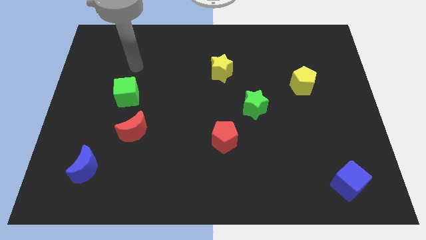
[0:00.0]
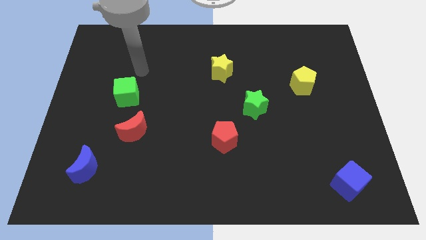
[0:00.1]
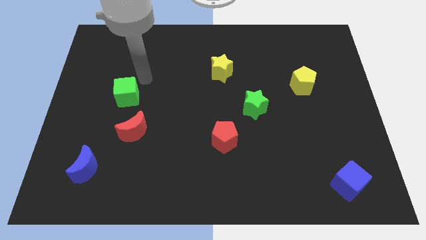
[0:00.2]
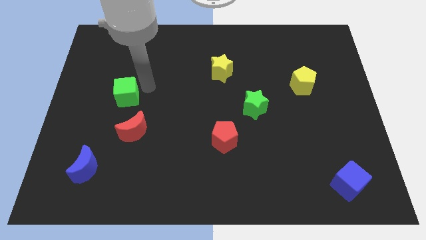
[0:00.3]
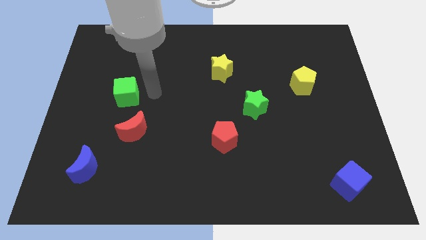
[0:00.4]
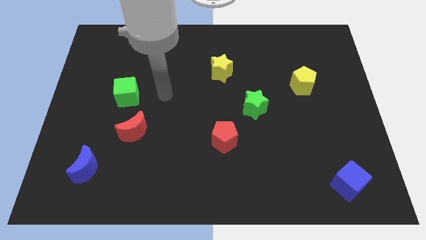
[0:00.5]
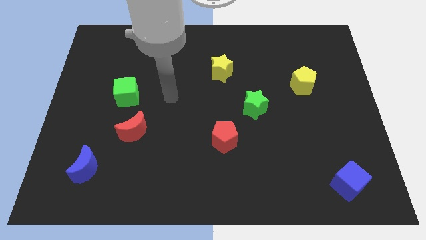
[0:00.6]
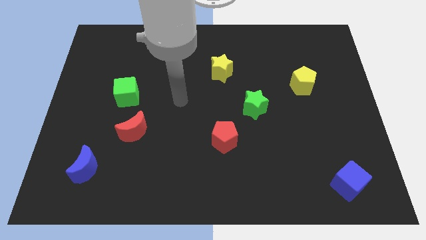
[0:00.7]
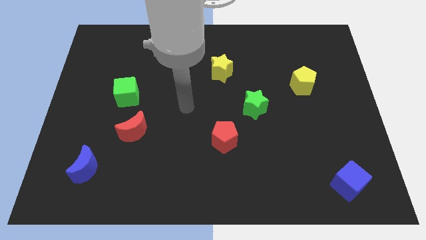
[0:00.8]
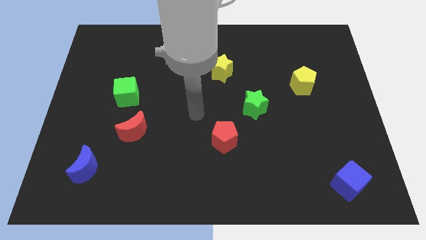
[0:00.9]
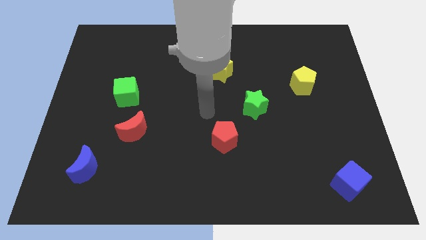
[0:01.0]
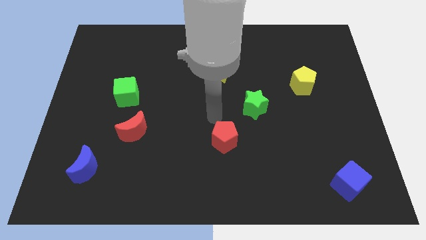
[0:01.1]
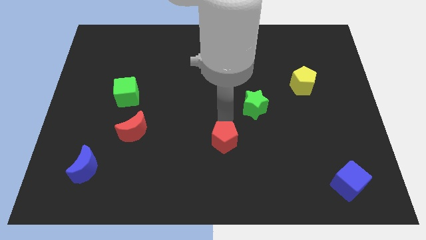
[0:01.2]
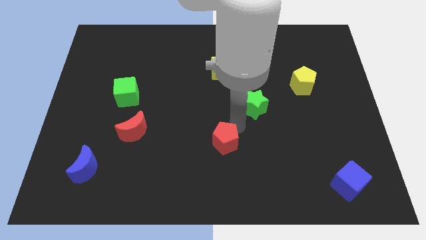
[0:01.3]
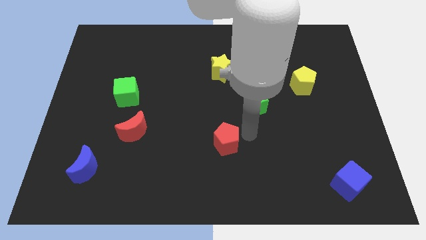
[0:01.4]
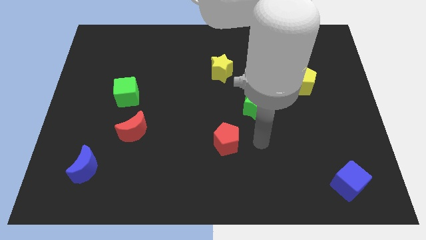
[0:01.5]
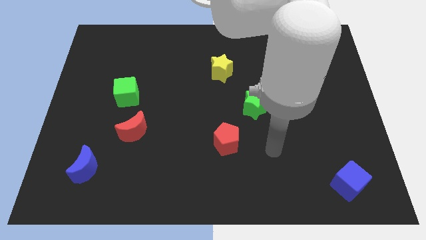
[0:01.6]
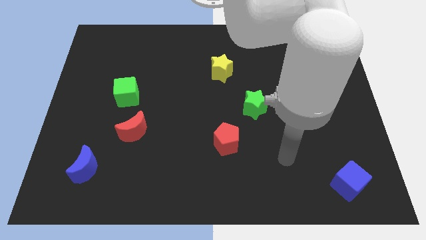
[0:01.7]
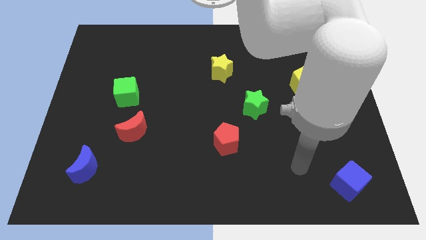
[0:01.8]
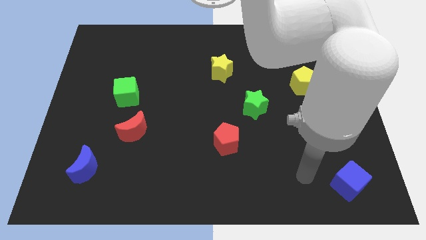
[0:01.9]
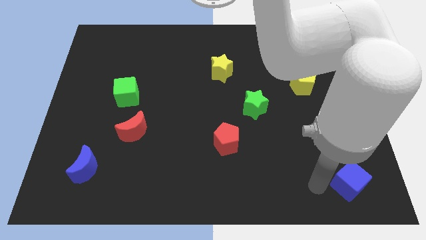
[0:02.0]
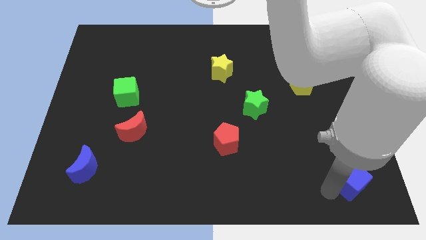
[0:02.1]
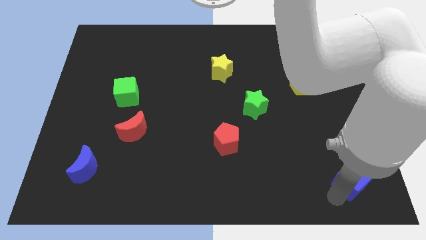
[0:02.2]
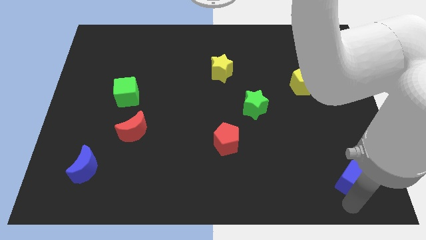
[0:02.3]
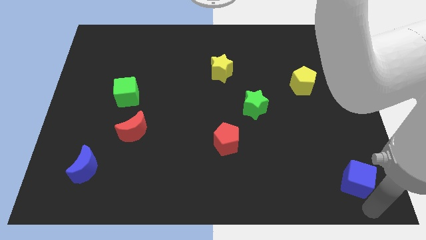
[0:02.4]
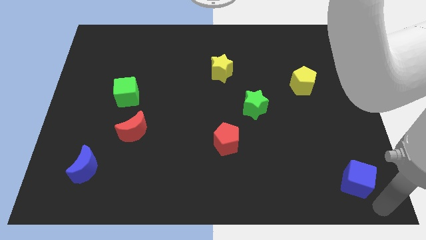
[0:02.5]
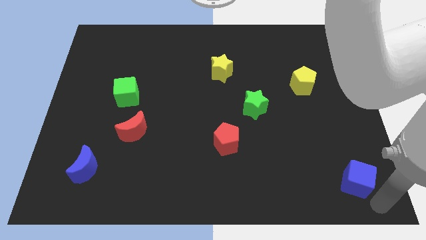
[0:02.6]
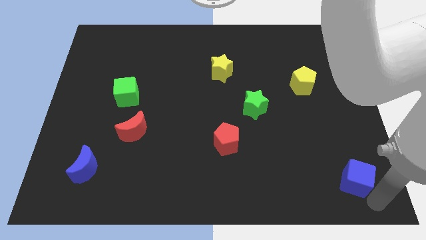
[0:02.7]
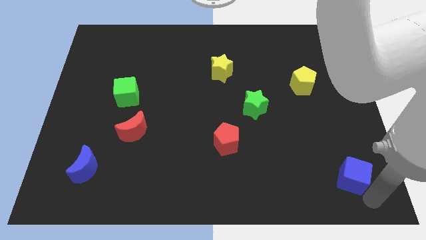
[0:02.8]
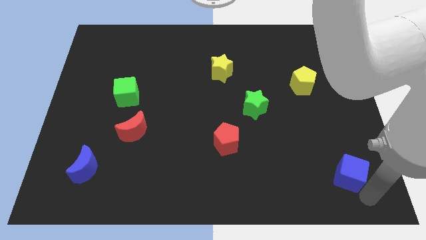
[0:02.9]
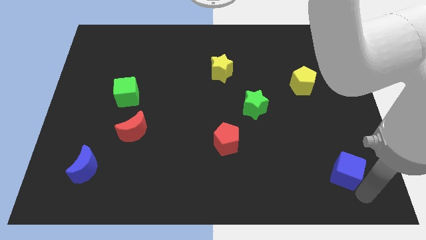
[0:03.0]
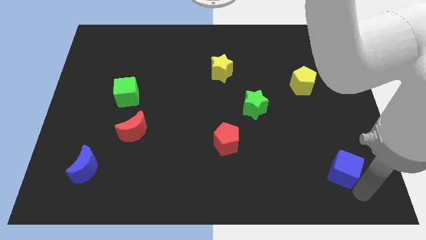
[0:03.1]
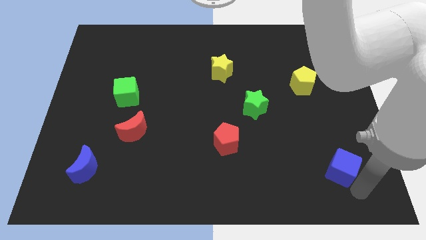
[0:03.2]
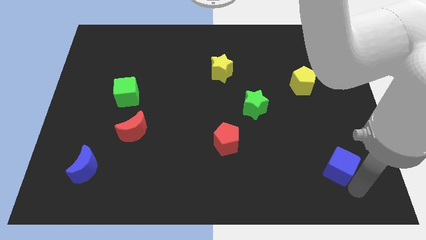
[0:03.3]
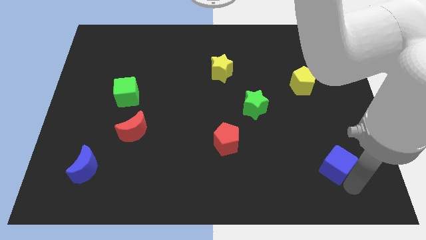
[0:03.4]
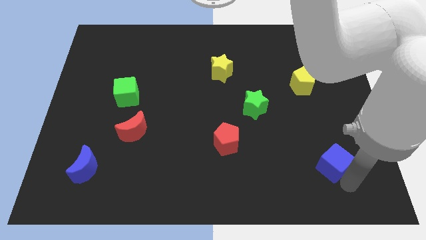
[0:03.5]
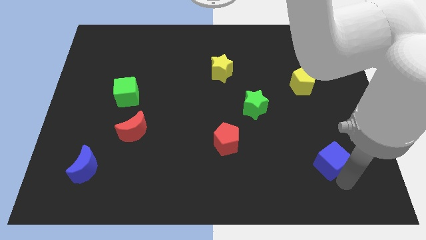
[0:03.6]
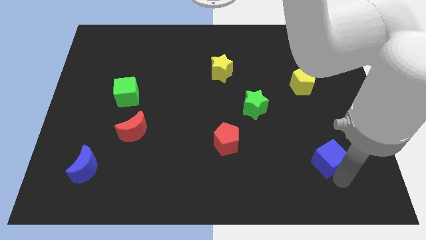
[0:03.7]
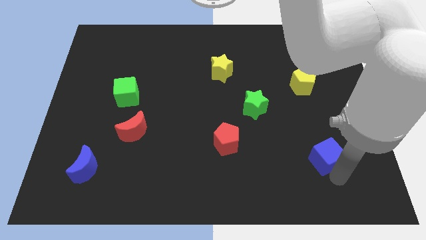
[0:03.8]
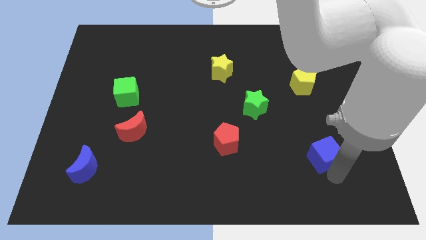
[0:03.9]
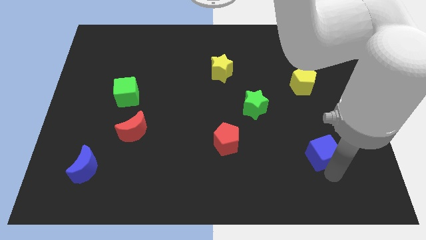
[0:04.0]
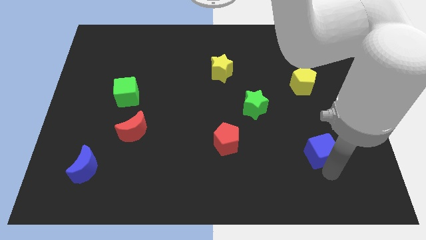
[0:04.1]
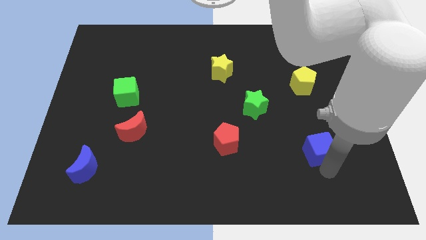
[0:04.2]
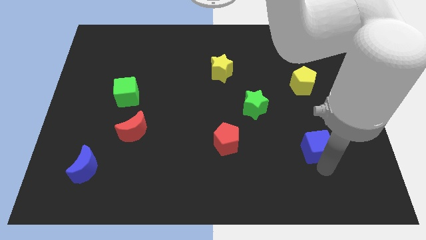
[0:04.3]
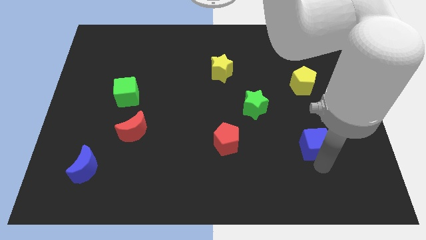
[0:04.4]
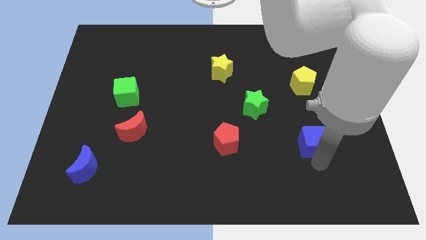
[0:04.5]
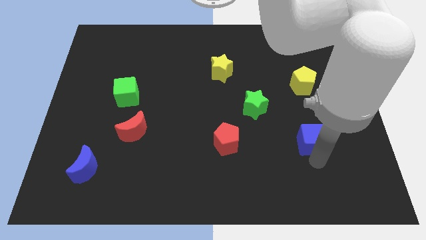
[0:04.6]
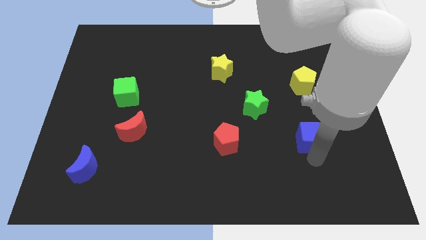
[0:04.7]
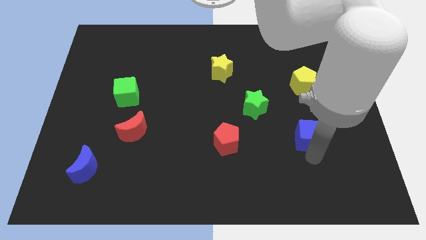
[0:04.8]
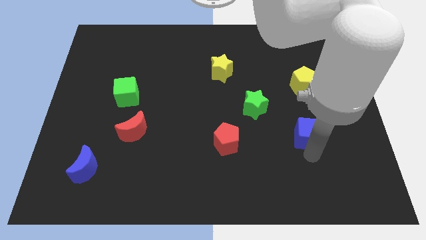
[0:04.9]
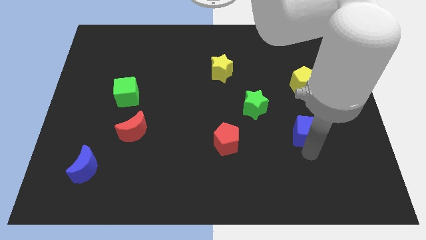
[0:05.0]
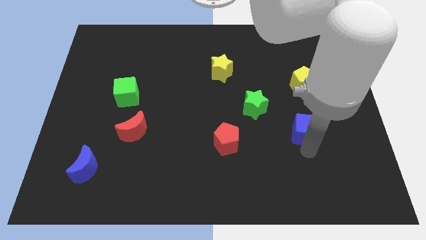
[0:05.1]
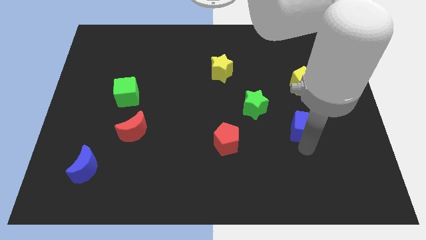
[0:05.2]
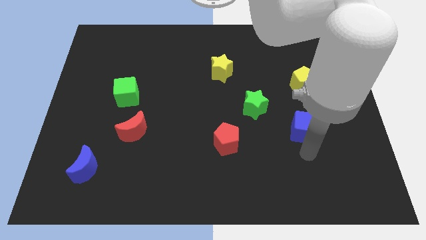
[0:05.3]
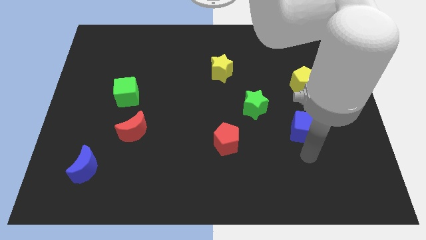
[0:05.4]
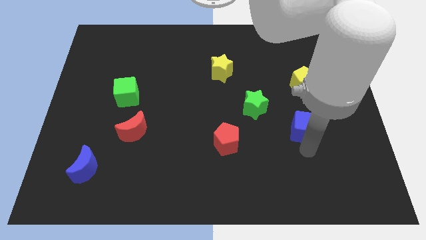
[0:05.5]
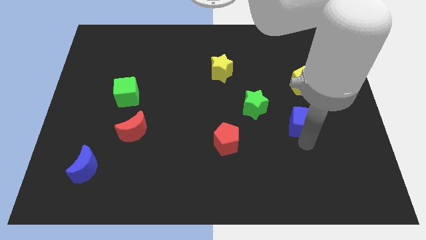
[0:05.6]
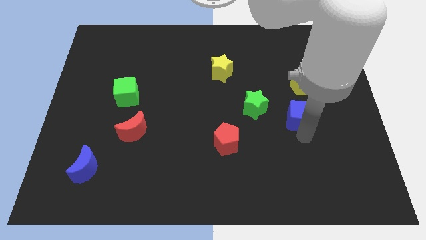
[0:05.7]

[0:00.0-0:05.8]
slide the blue cube to the right of the green star

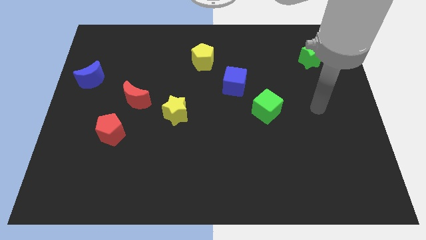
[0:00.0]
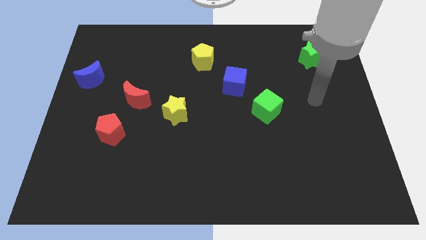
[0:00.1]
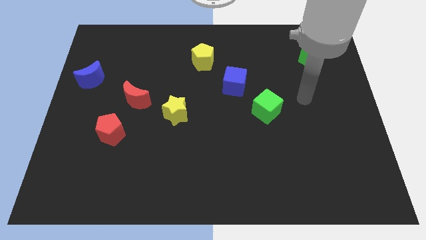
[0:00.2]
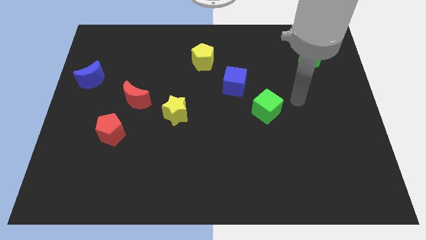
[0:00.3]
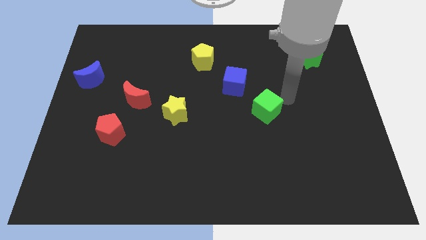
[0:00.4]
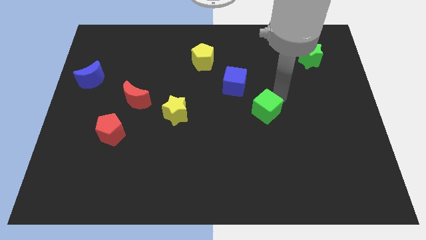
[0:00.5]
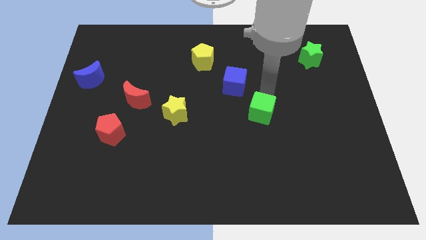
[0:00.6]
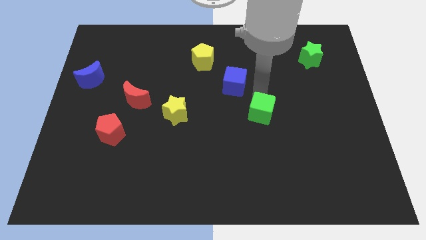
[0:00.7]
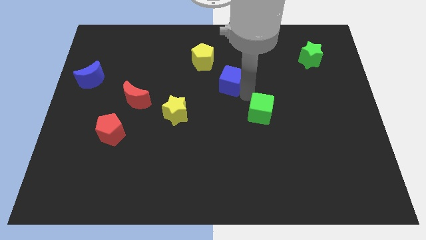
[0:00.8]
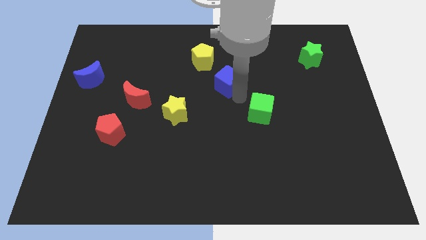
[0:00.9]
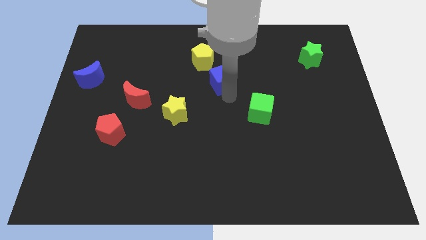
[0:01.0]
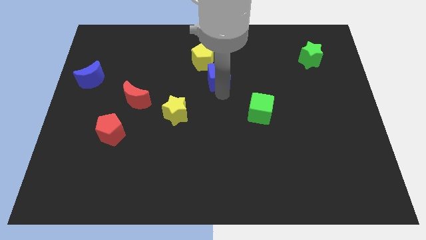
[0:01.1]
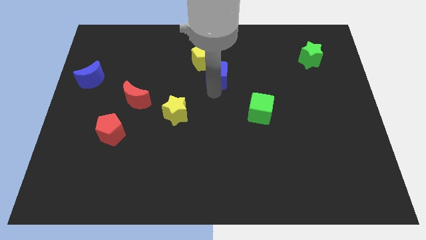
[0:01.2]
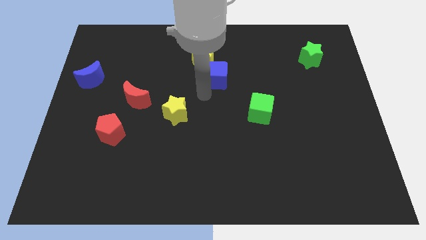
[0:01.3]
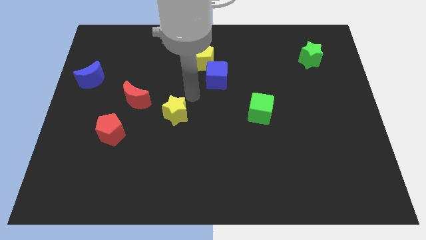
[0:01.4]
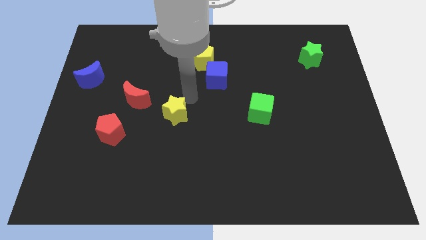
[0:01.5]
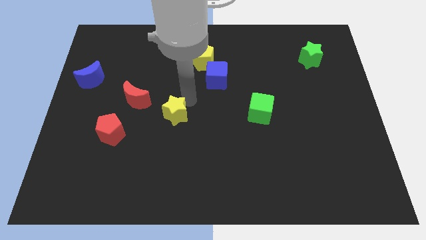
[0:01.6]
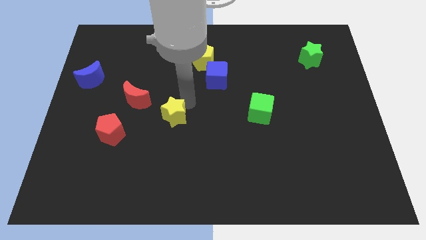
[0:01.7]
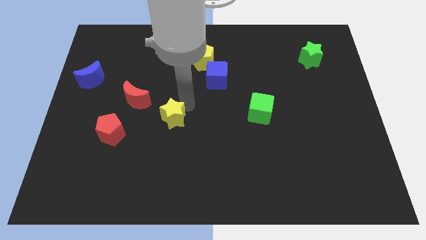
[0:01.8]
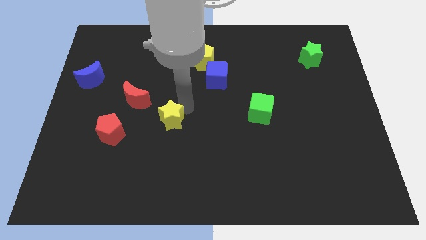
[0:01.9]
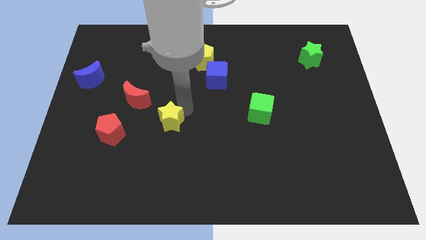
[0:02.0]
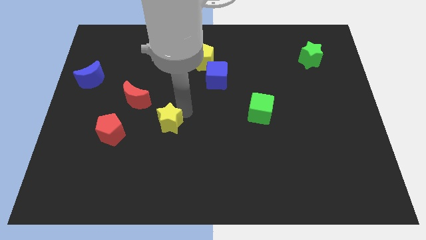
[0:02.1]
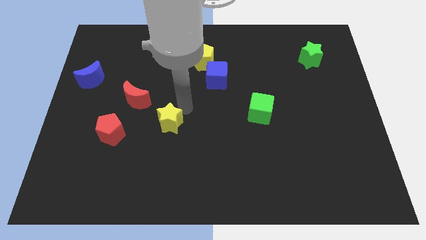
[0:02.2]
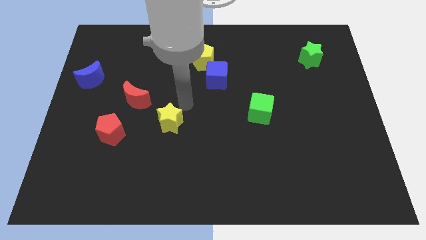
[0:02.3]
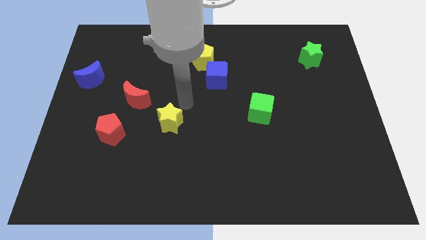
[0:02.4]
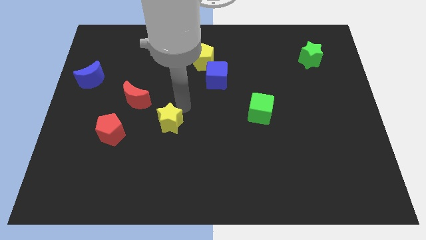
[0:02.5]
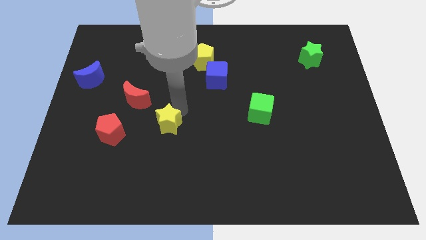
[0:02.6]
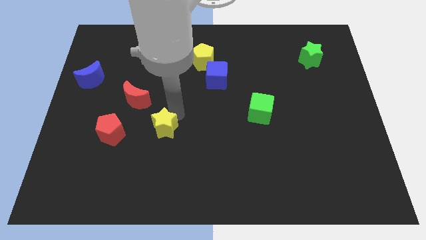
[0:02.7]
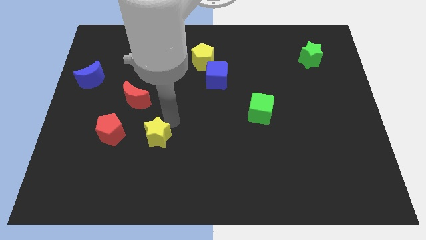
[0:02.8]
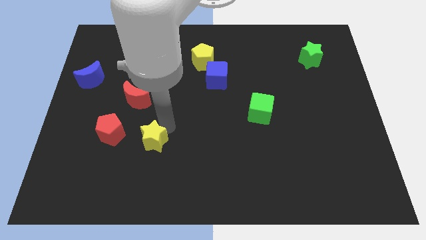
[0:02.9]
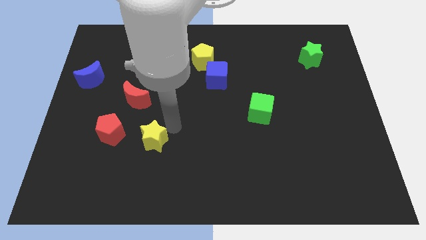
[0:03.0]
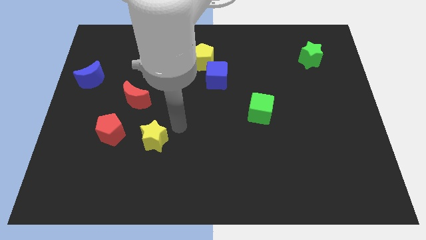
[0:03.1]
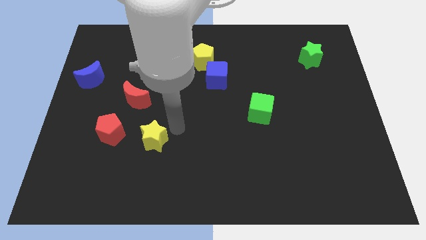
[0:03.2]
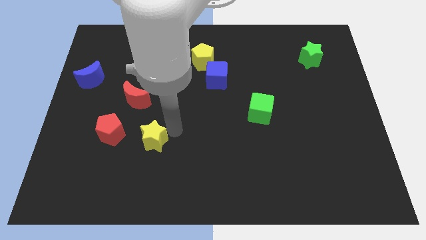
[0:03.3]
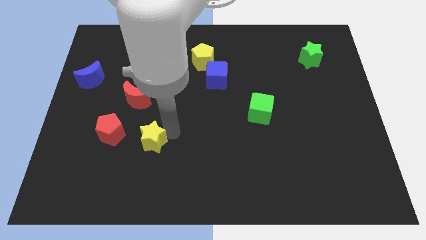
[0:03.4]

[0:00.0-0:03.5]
put the yellow star to the bottom right side of the red pentagon
